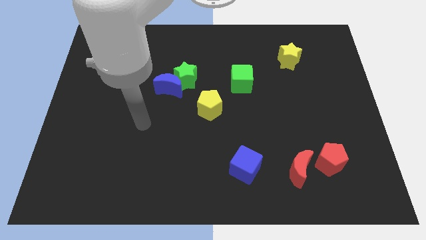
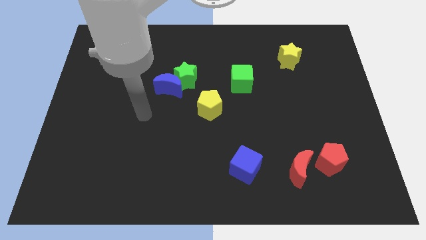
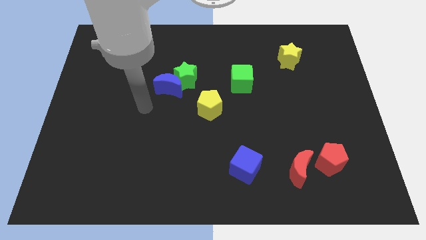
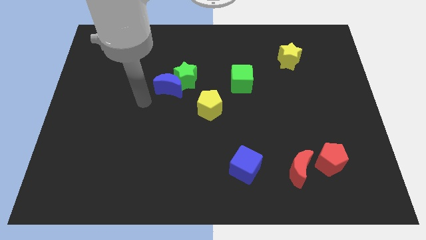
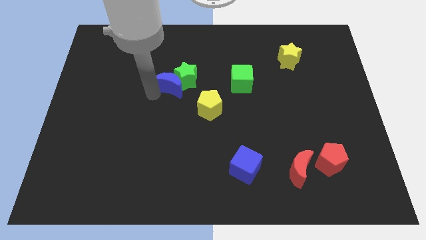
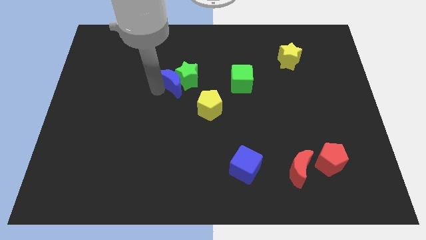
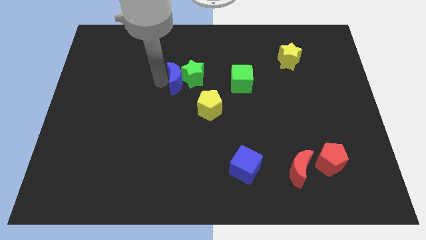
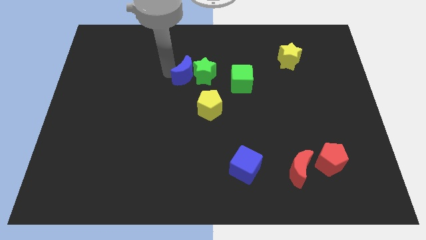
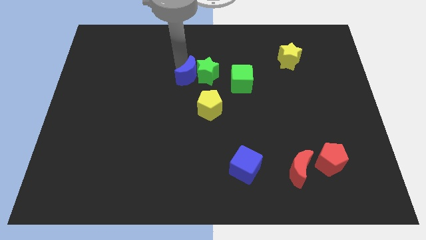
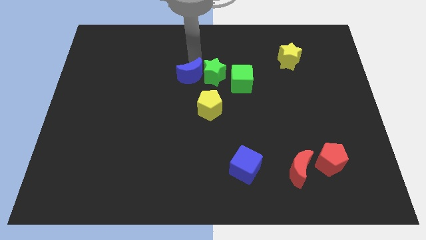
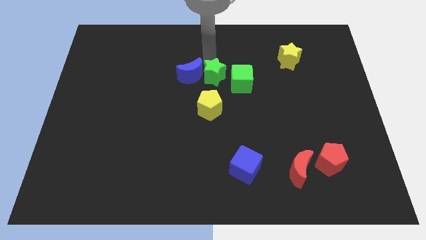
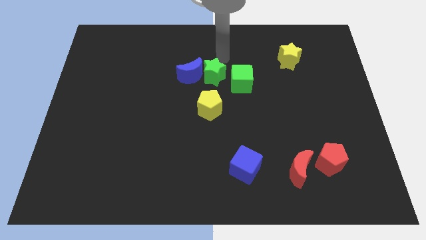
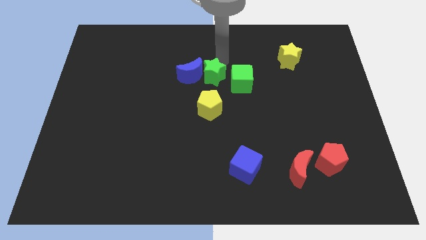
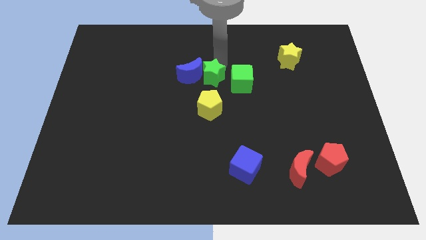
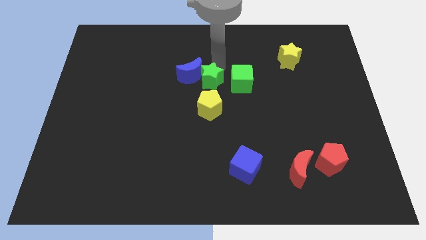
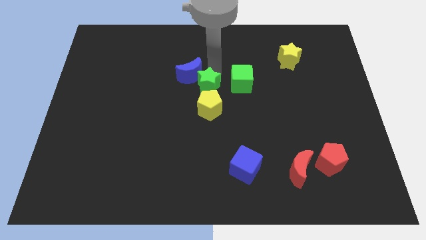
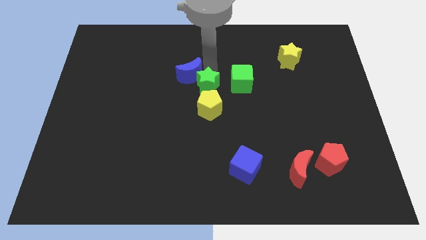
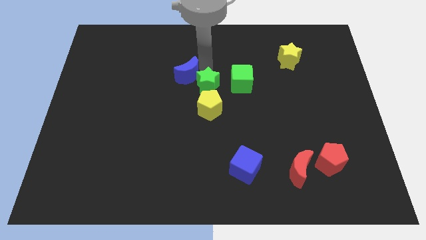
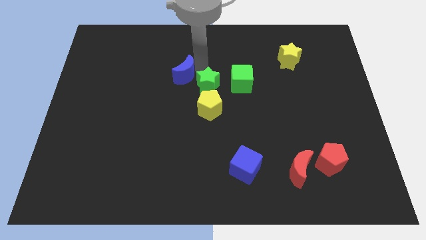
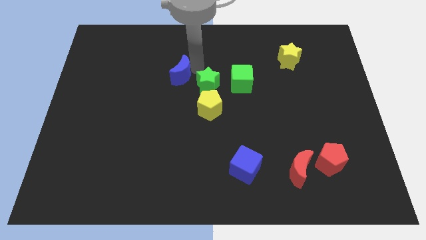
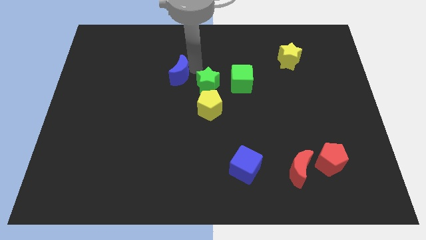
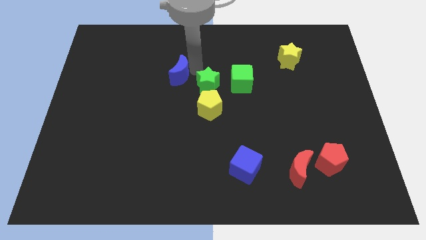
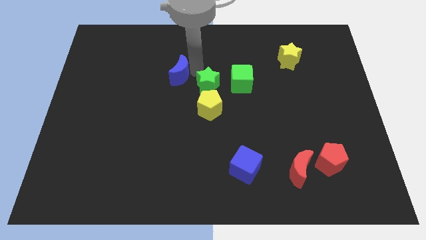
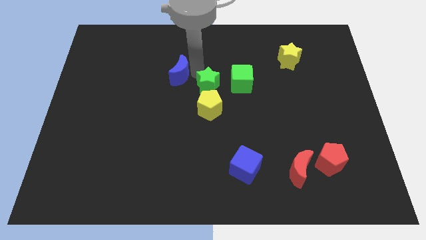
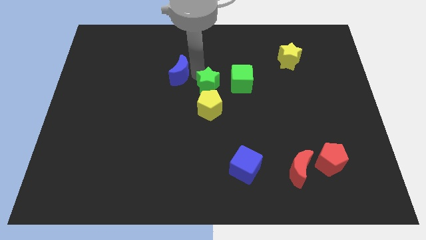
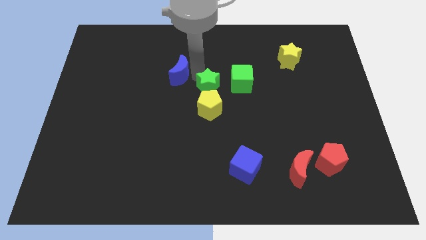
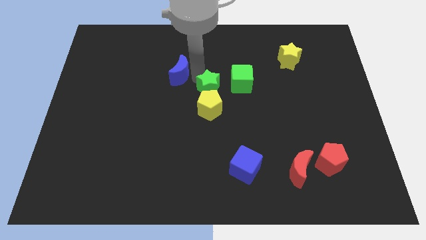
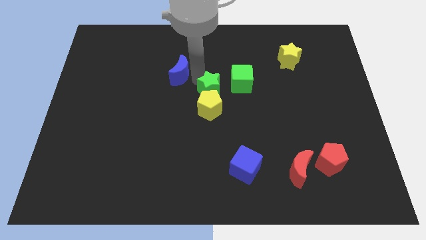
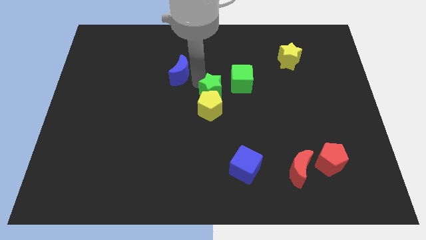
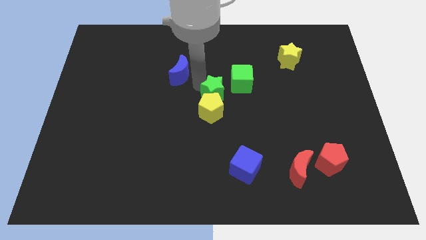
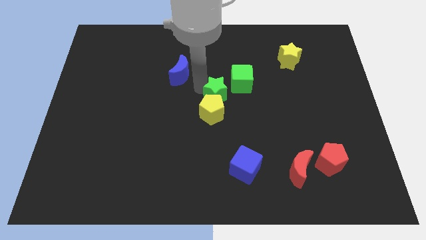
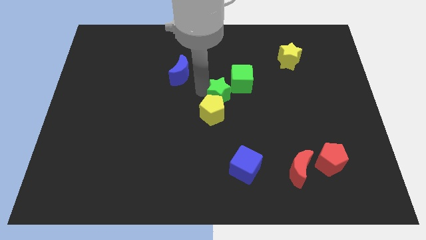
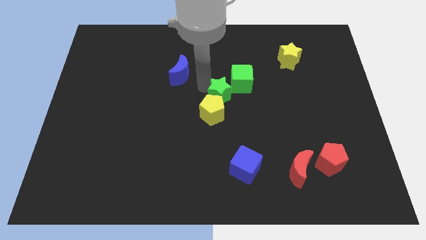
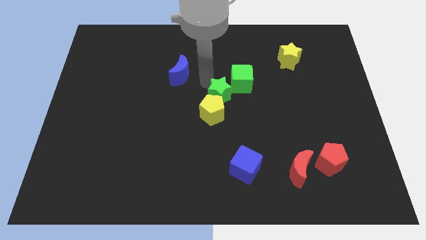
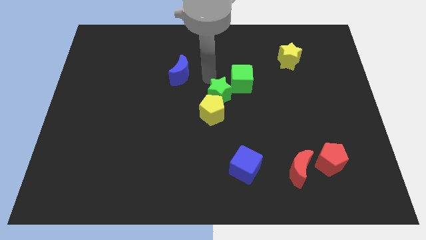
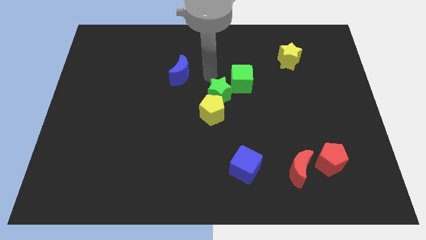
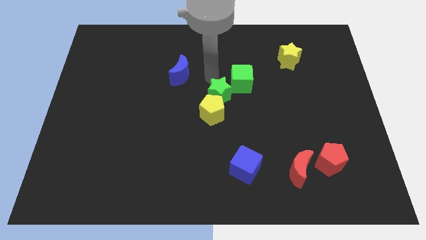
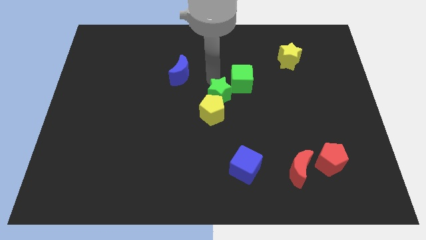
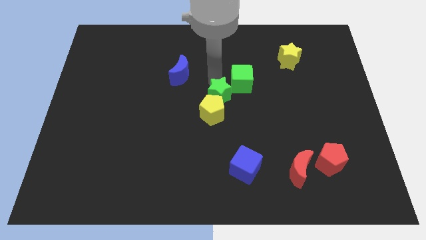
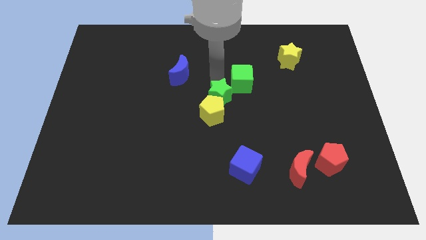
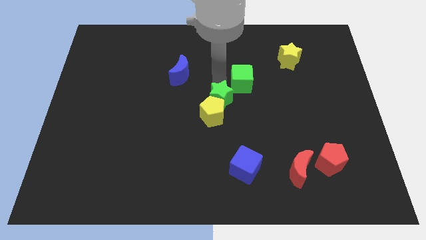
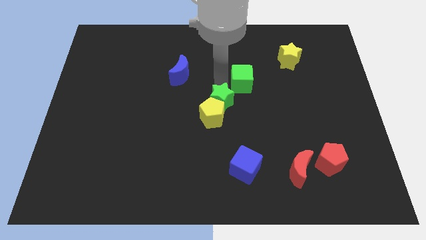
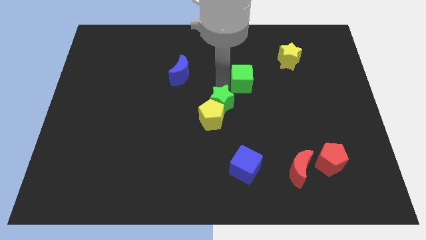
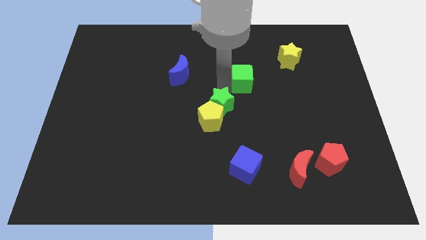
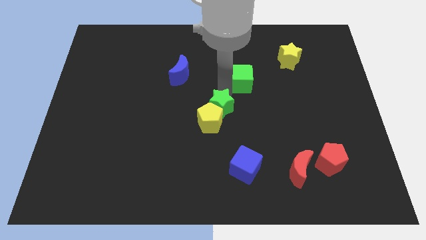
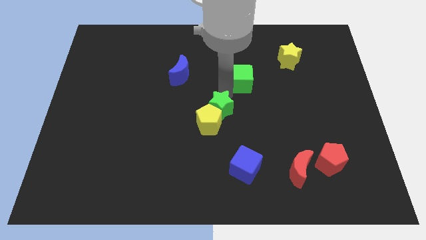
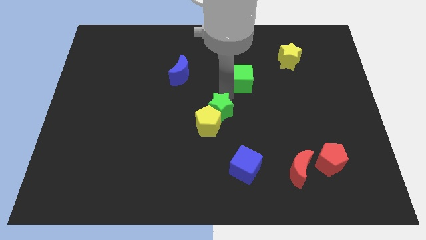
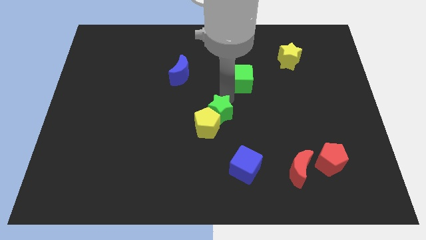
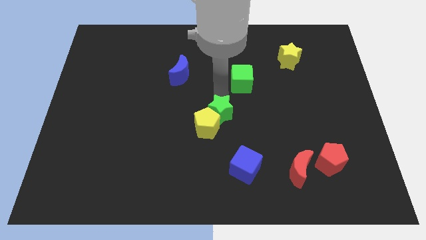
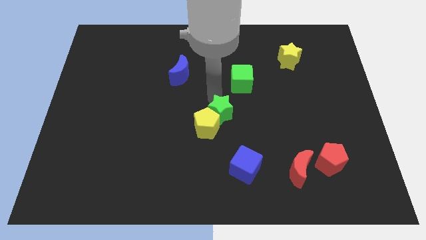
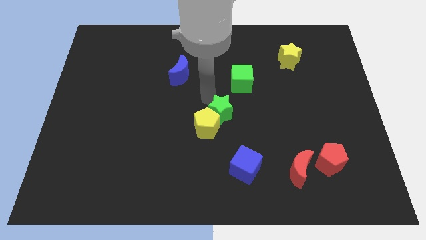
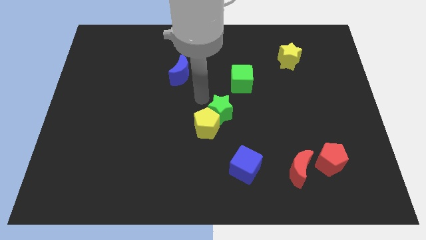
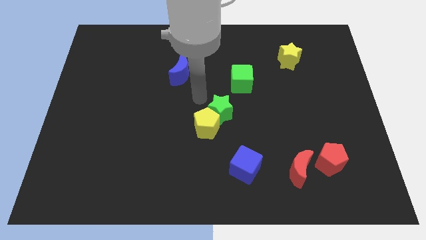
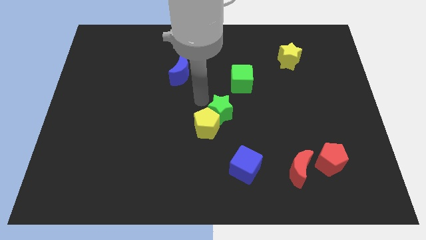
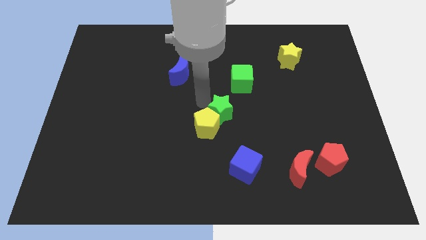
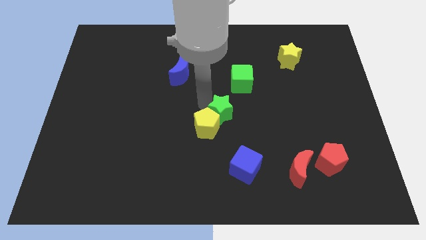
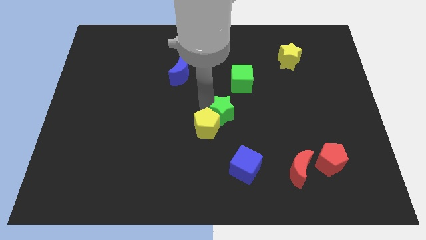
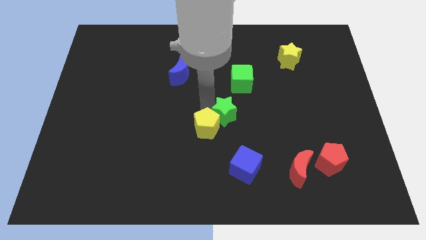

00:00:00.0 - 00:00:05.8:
push the green star above the blue cube
